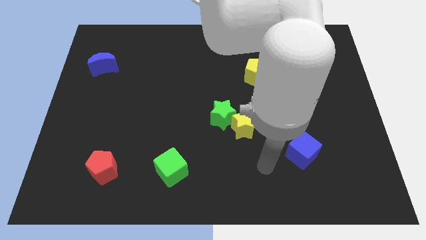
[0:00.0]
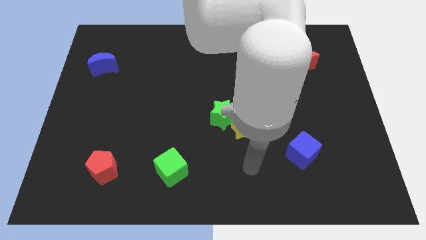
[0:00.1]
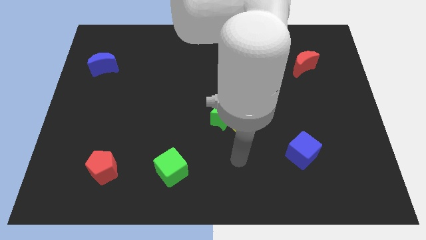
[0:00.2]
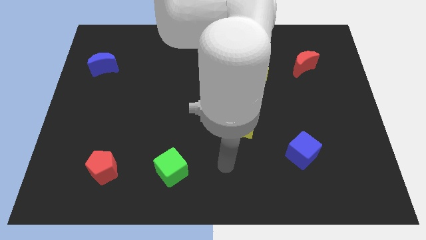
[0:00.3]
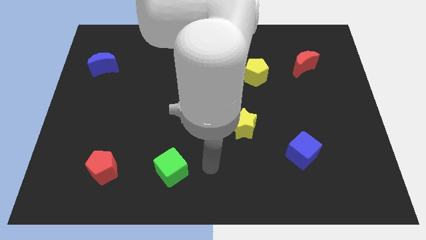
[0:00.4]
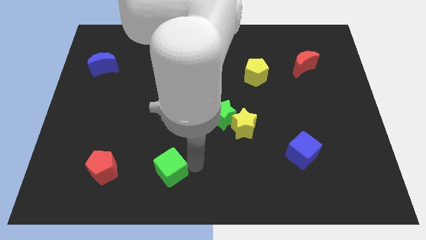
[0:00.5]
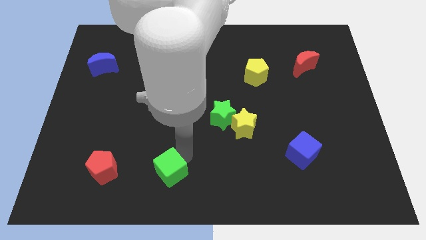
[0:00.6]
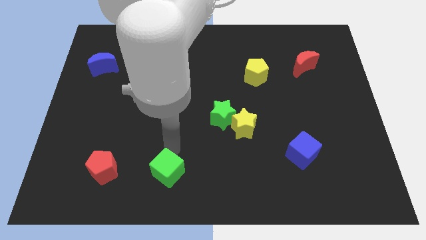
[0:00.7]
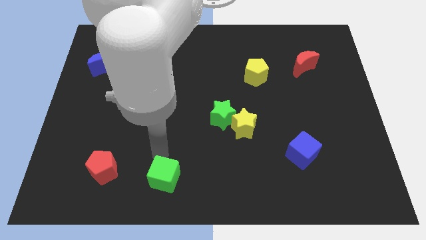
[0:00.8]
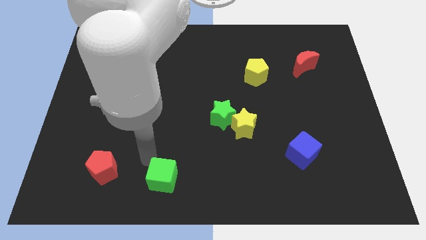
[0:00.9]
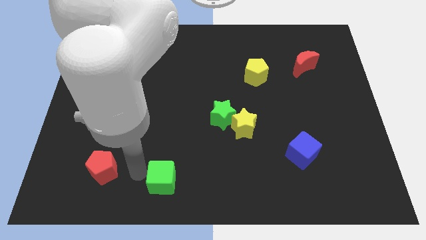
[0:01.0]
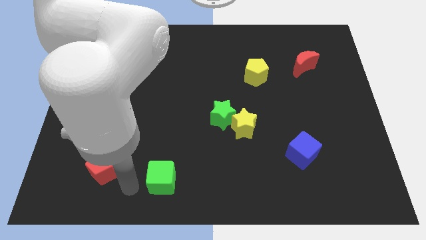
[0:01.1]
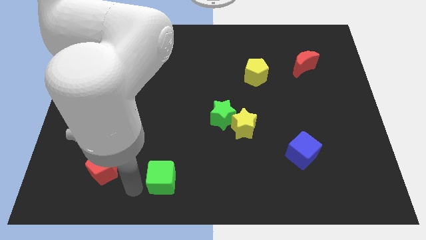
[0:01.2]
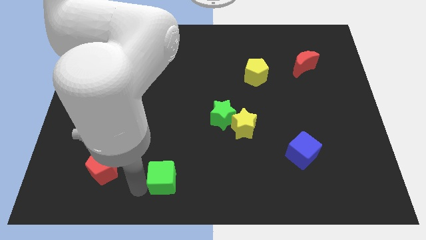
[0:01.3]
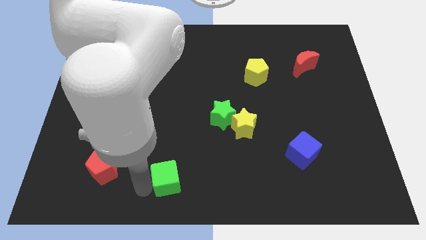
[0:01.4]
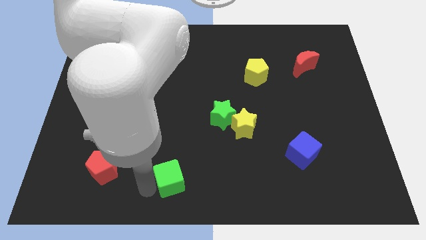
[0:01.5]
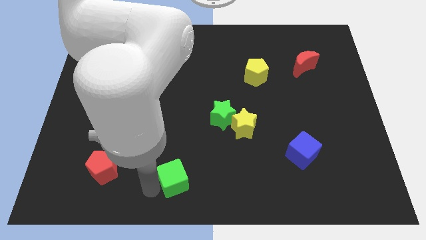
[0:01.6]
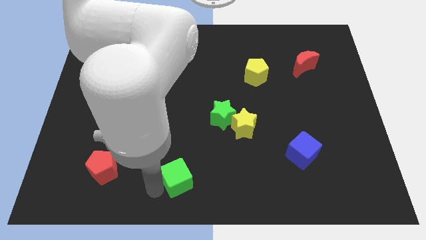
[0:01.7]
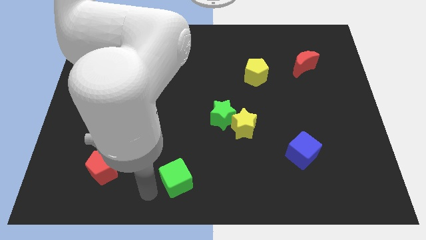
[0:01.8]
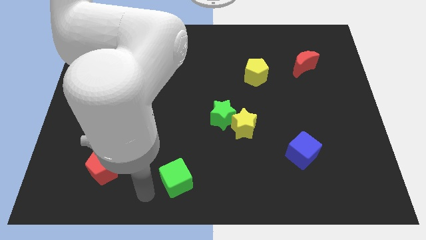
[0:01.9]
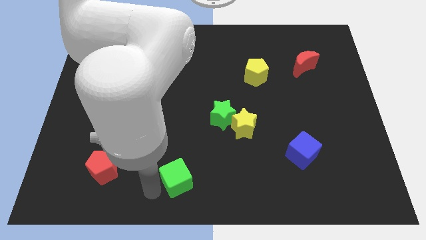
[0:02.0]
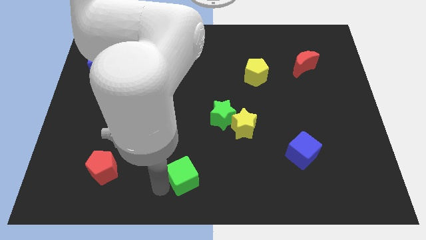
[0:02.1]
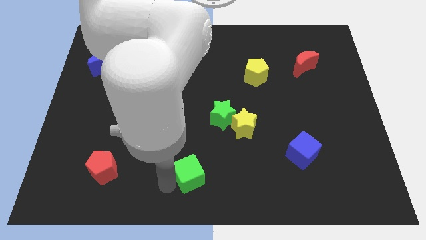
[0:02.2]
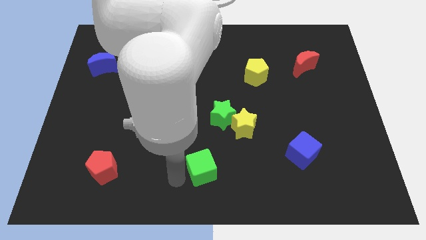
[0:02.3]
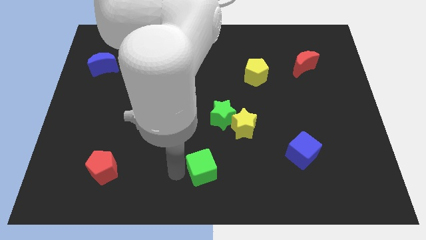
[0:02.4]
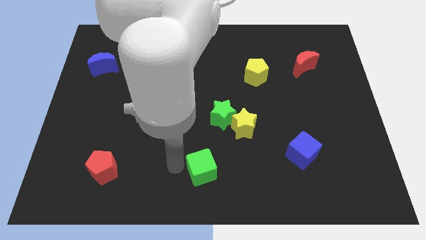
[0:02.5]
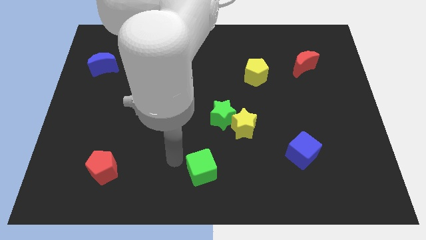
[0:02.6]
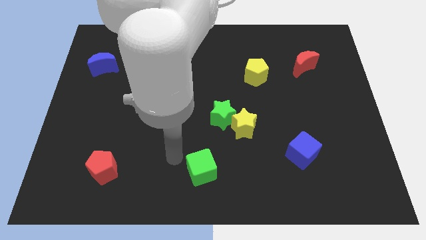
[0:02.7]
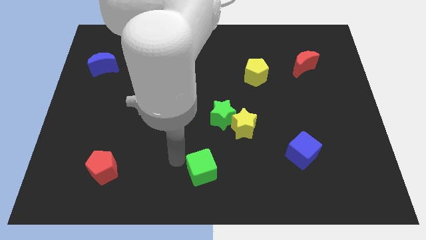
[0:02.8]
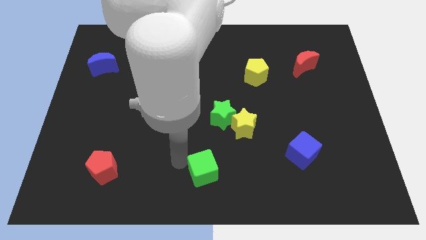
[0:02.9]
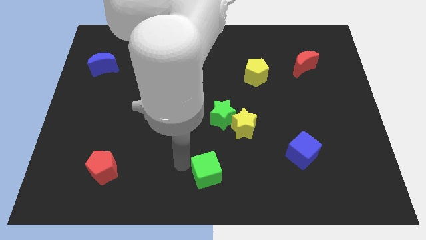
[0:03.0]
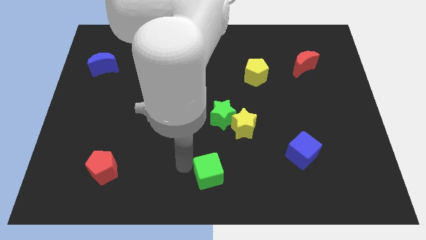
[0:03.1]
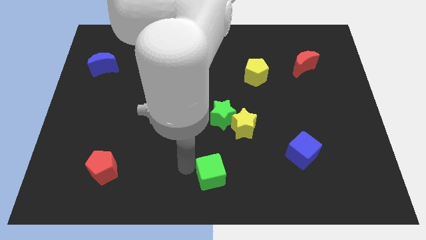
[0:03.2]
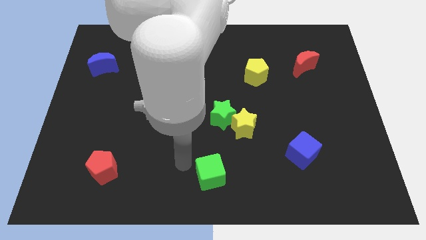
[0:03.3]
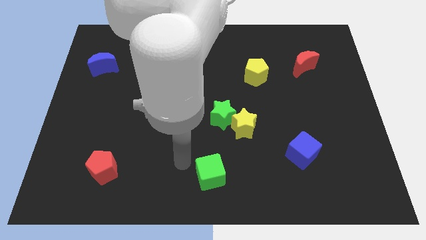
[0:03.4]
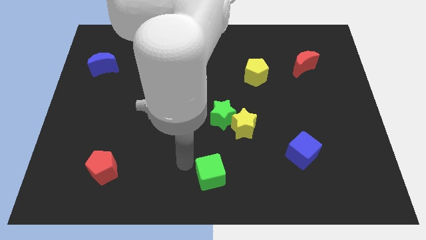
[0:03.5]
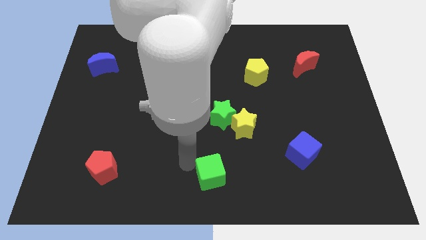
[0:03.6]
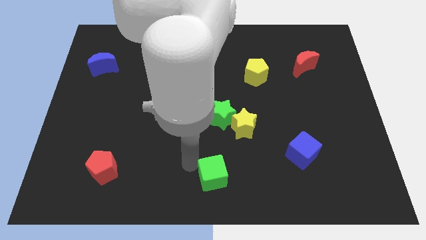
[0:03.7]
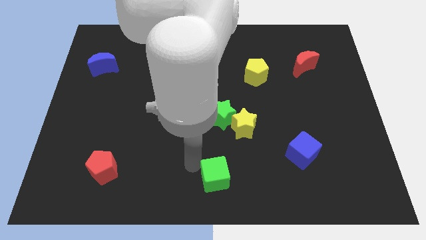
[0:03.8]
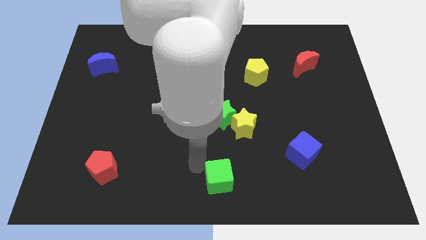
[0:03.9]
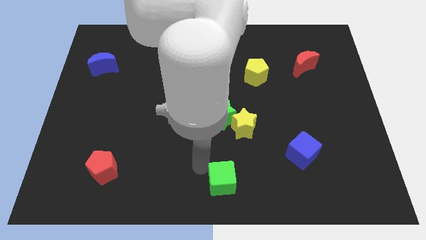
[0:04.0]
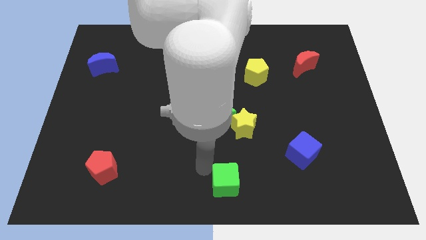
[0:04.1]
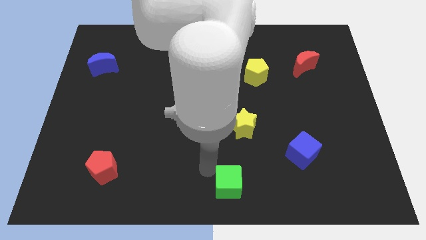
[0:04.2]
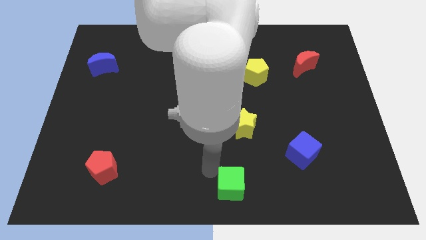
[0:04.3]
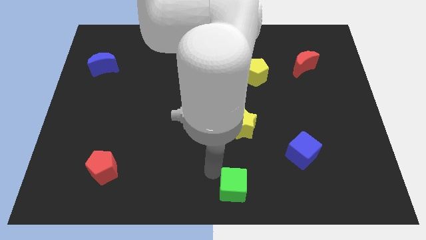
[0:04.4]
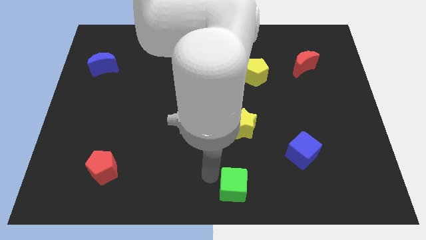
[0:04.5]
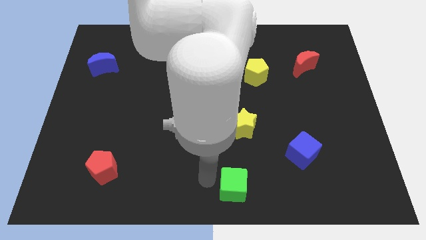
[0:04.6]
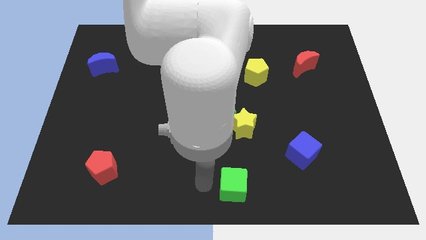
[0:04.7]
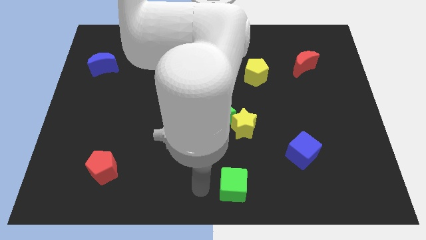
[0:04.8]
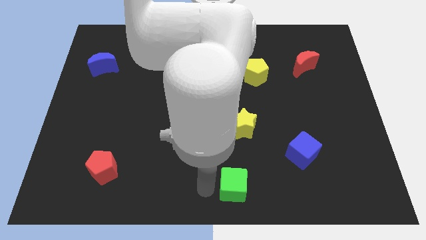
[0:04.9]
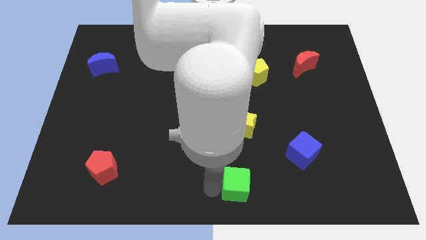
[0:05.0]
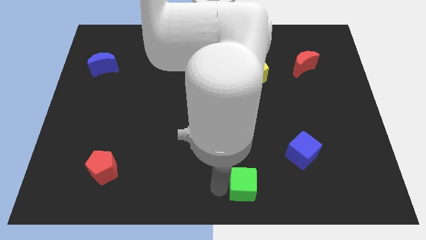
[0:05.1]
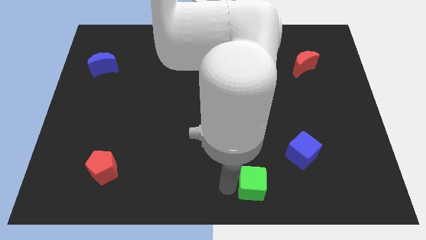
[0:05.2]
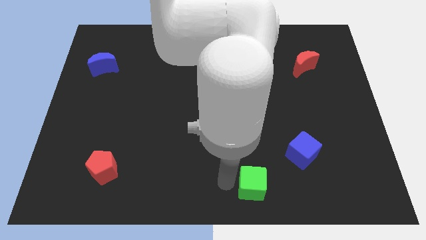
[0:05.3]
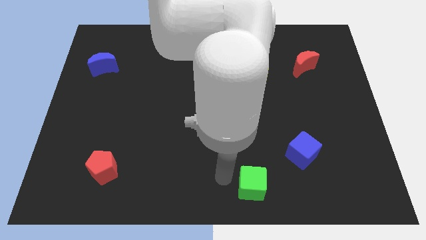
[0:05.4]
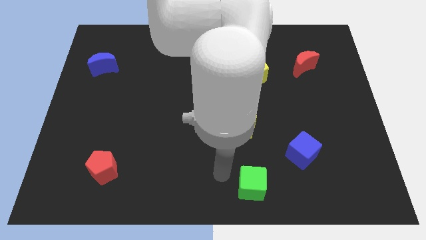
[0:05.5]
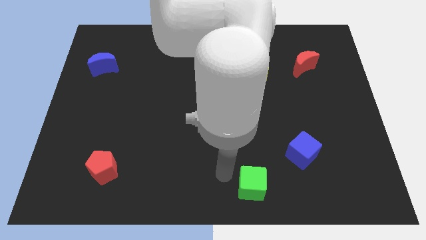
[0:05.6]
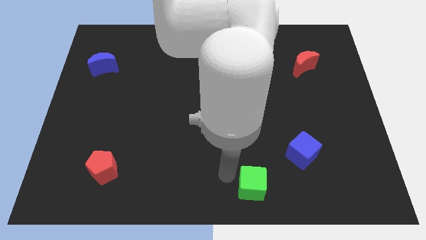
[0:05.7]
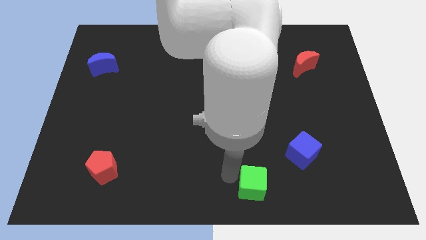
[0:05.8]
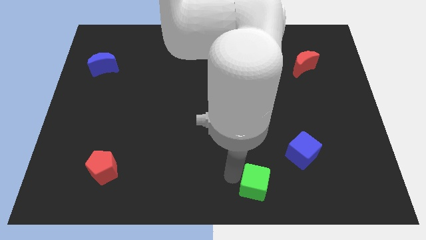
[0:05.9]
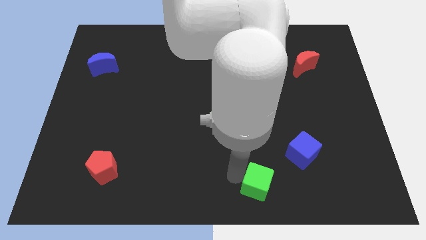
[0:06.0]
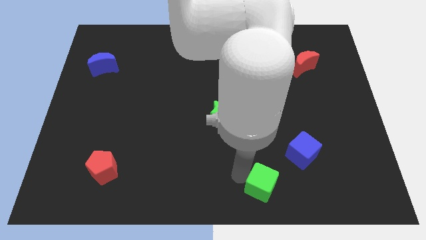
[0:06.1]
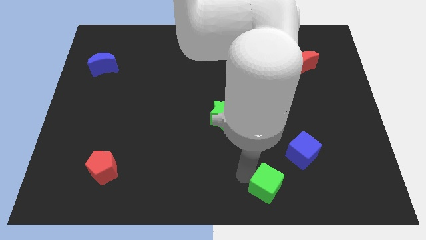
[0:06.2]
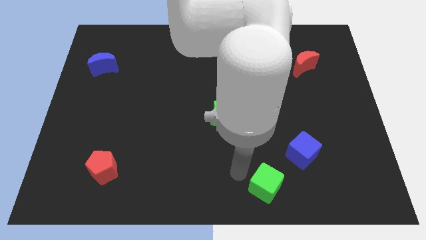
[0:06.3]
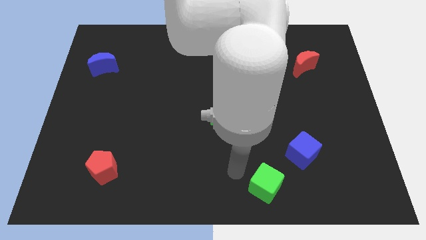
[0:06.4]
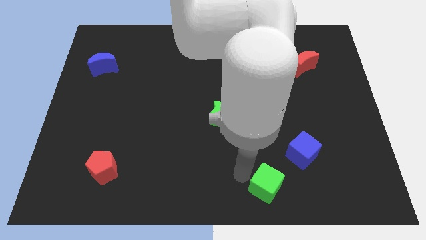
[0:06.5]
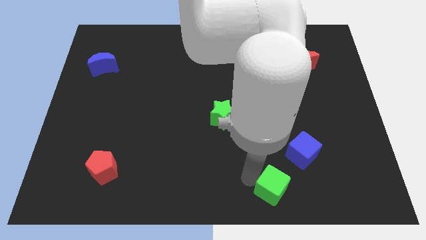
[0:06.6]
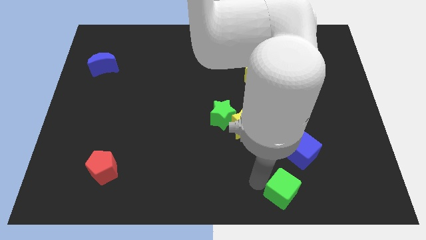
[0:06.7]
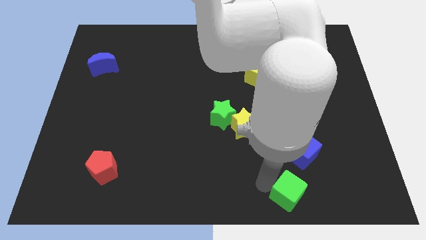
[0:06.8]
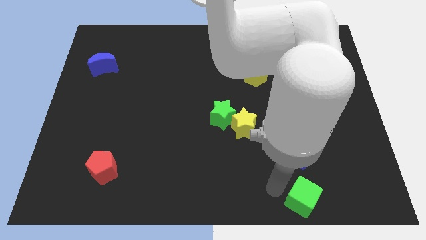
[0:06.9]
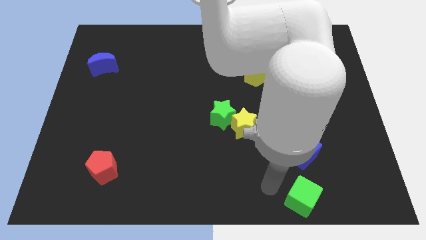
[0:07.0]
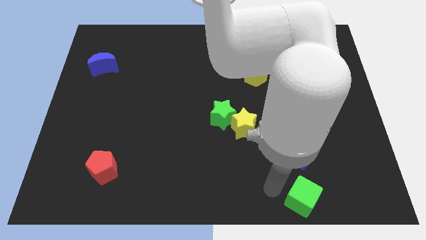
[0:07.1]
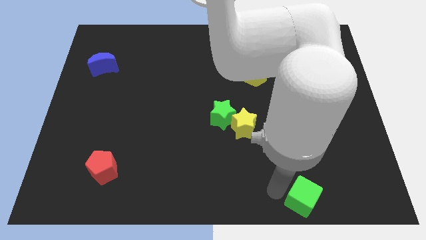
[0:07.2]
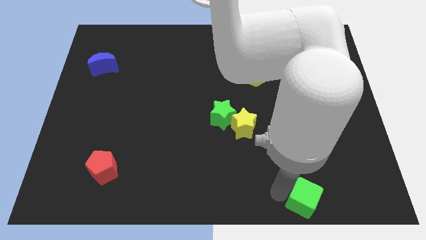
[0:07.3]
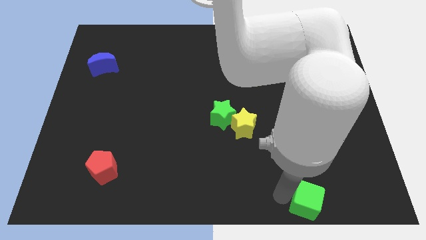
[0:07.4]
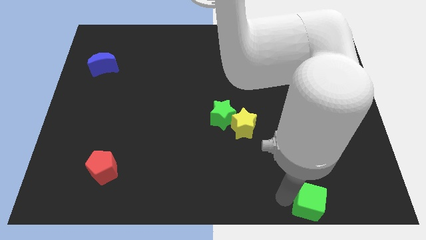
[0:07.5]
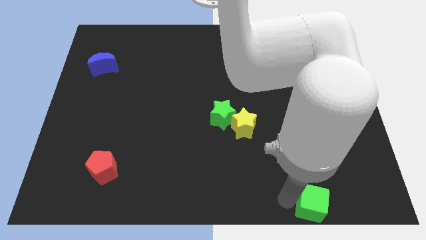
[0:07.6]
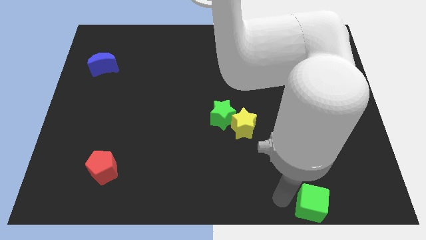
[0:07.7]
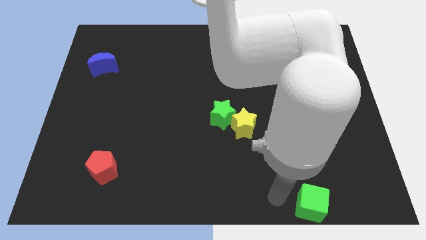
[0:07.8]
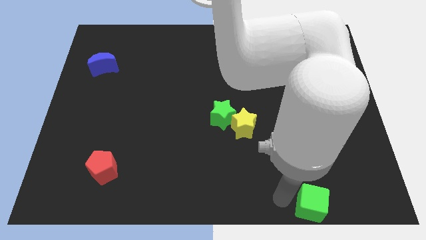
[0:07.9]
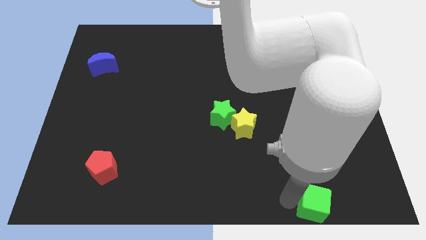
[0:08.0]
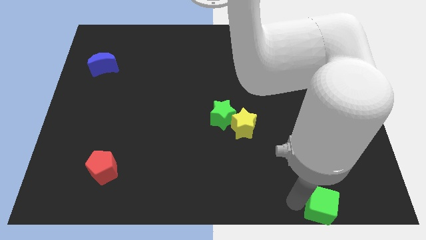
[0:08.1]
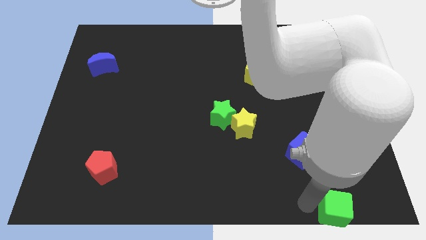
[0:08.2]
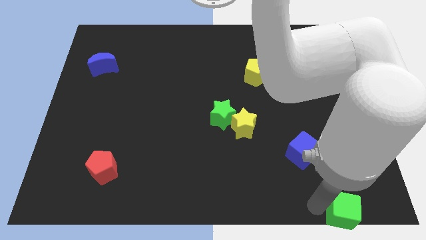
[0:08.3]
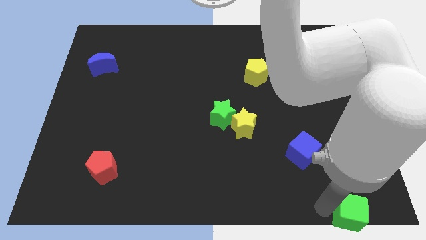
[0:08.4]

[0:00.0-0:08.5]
move the green cube to the bottom right corner
